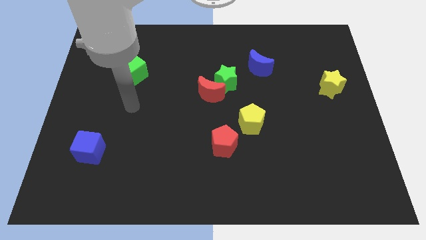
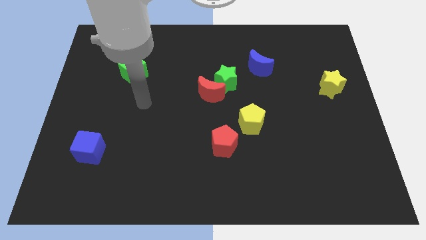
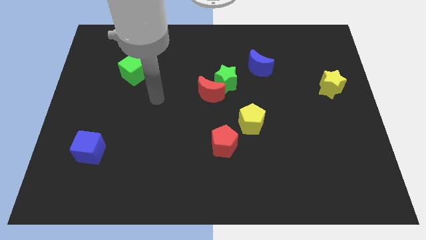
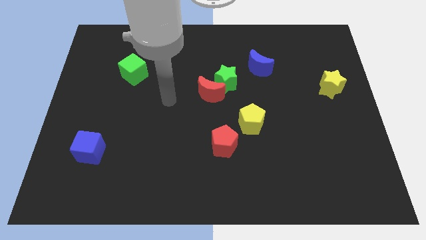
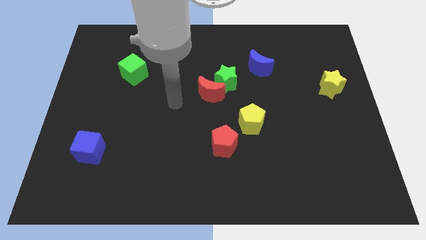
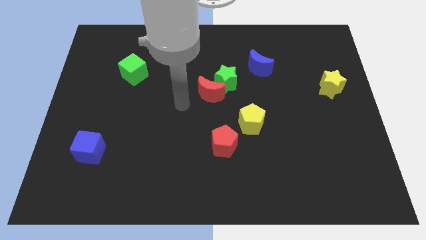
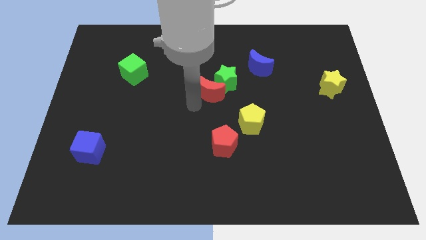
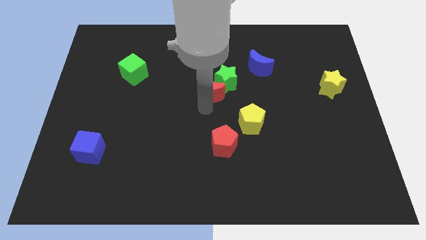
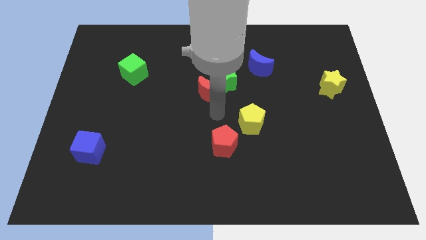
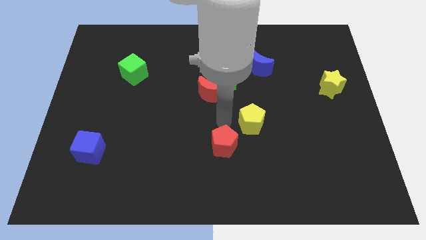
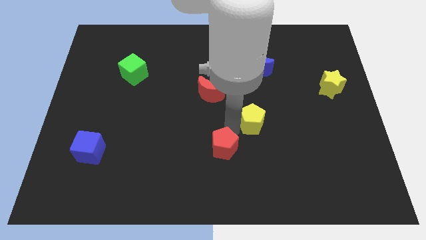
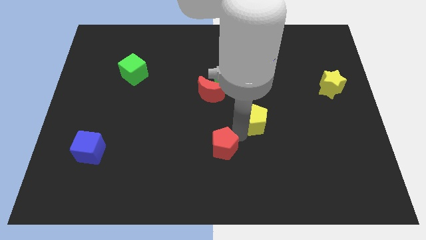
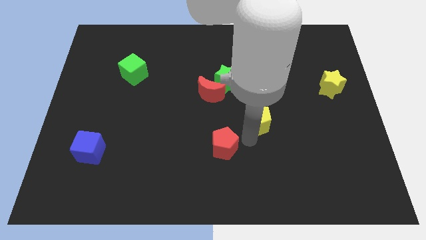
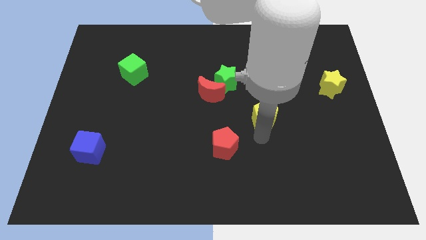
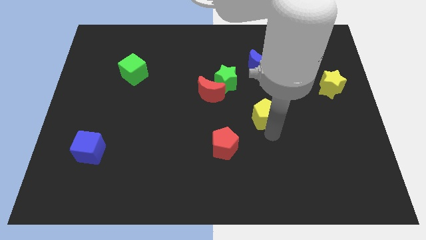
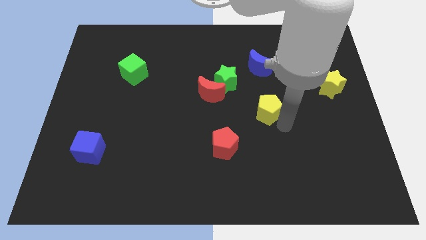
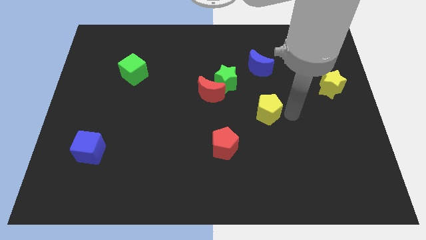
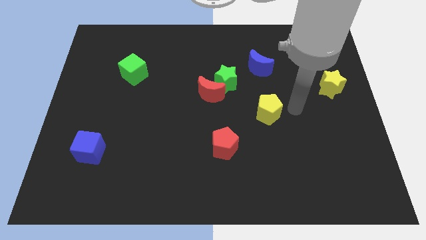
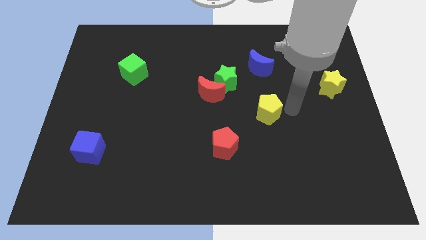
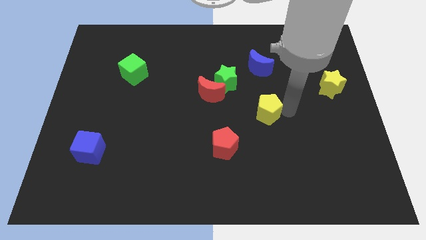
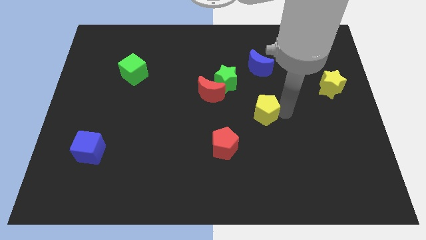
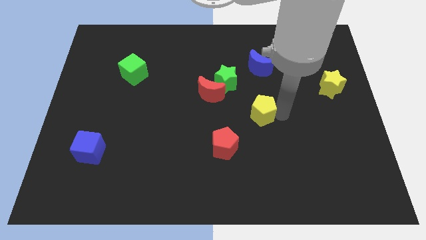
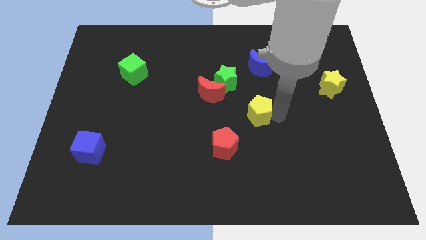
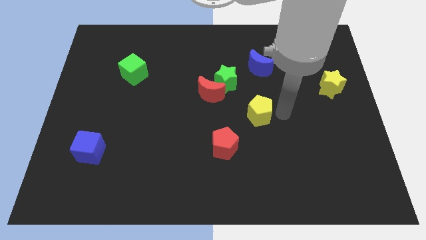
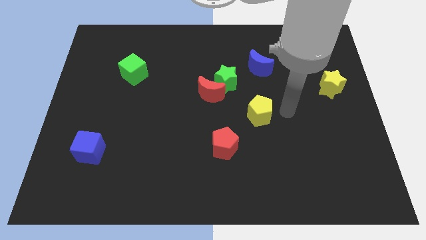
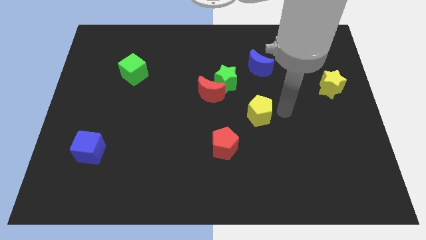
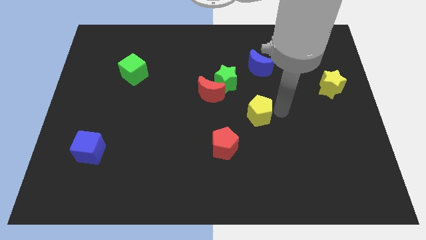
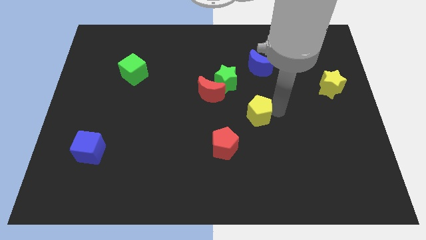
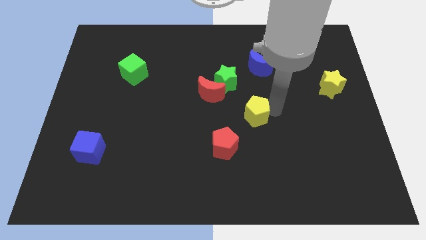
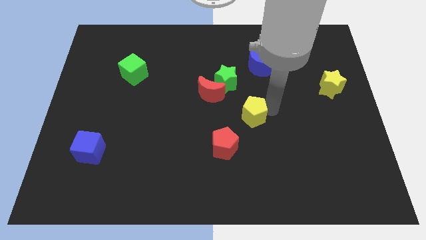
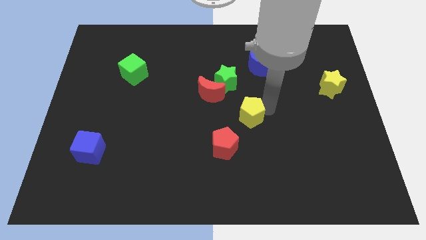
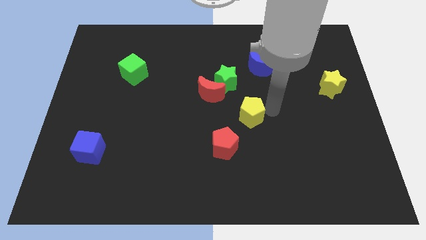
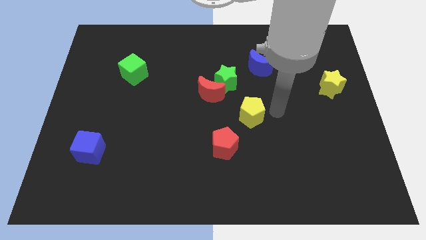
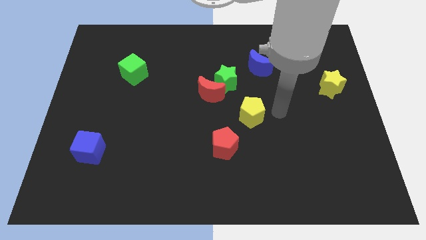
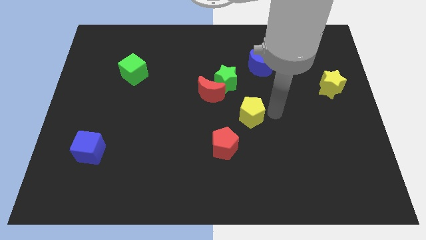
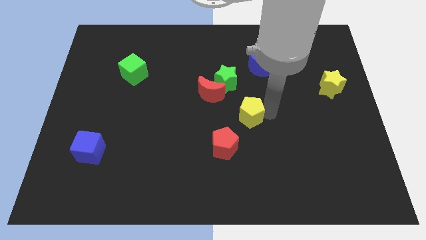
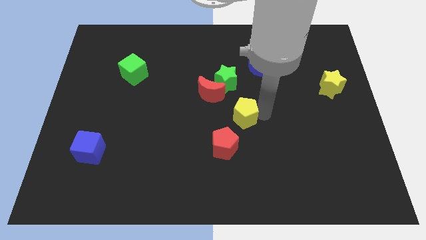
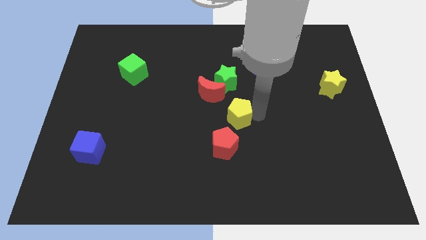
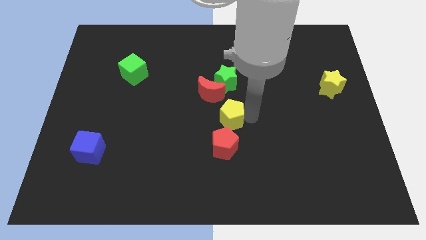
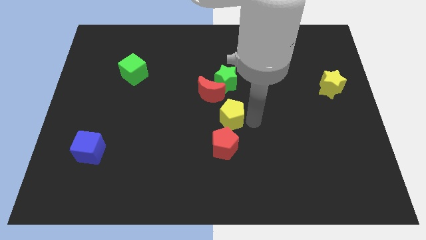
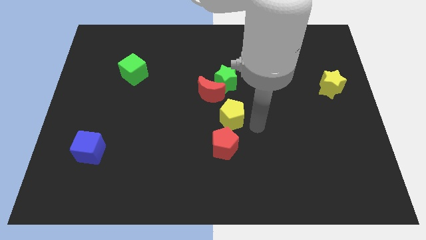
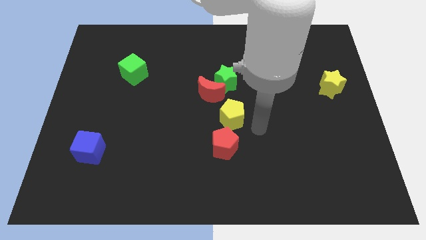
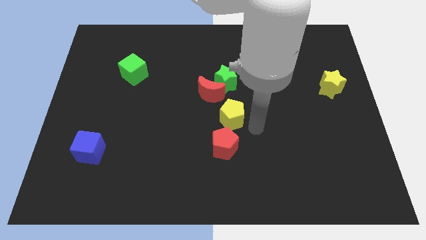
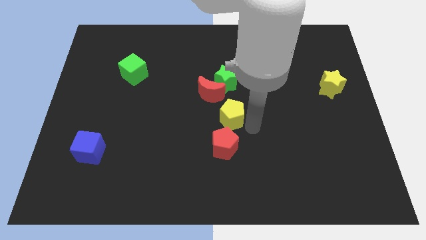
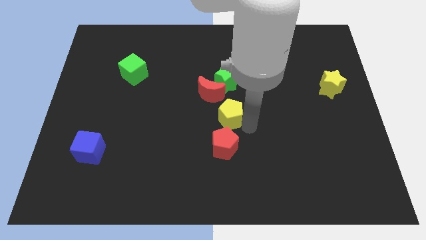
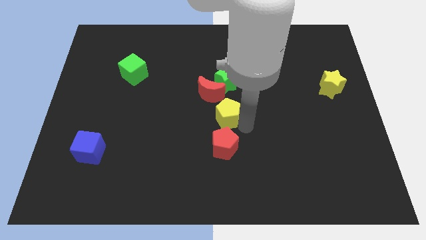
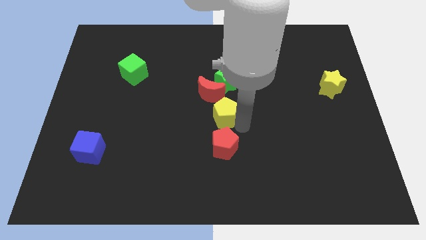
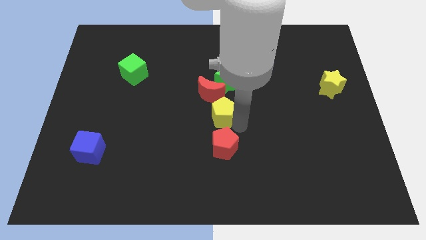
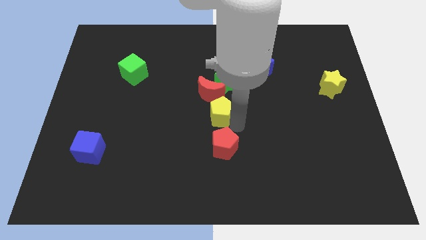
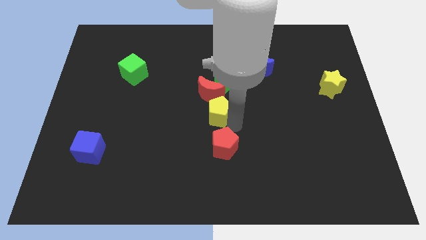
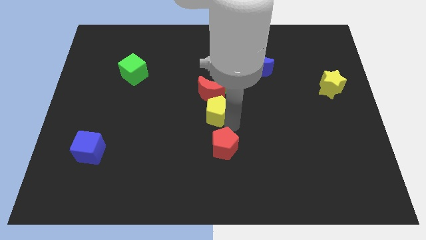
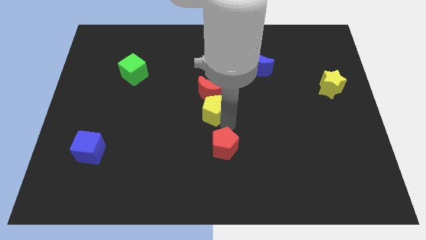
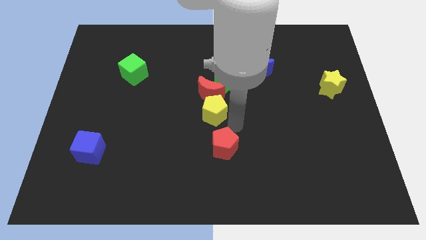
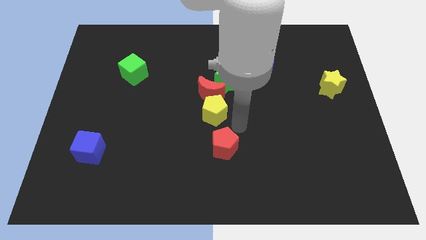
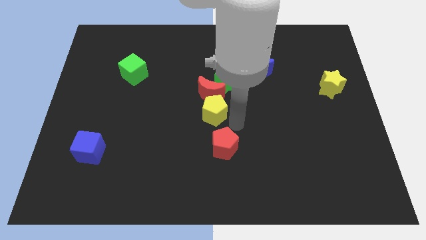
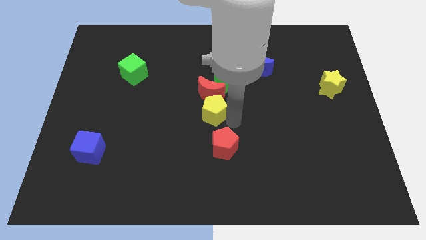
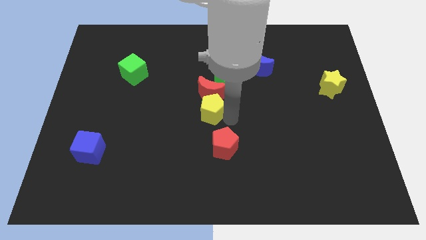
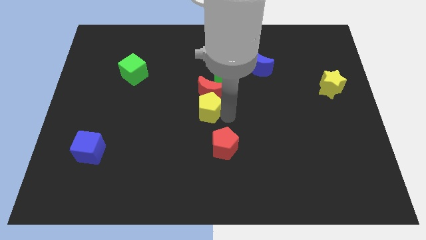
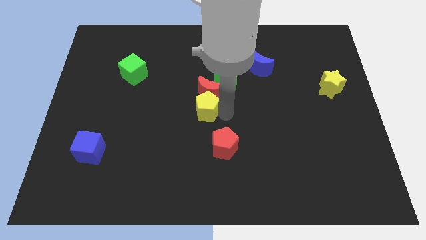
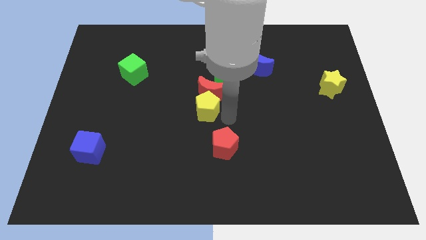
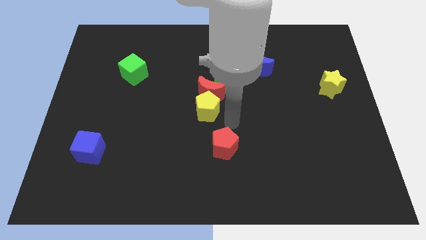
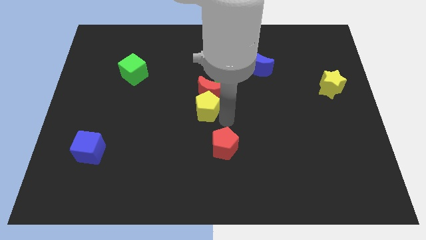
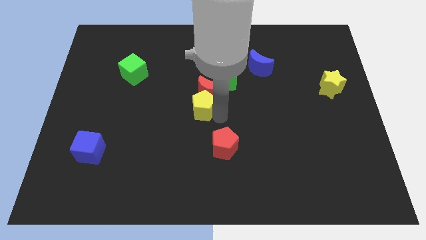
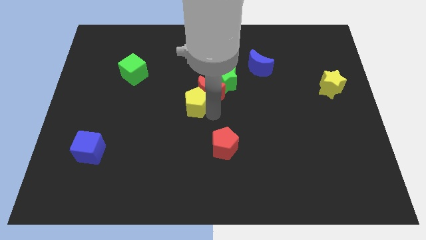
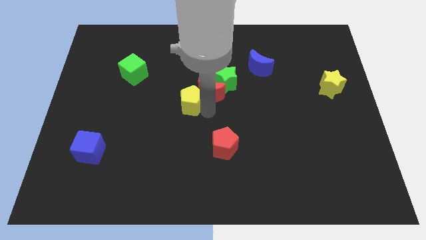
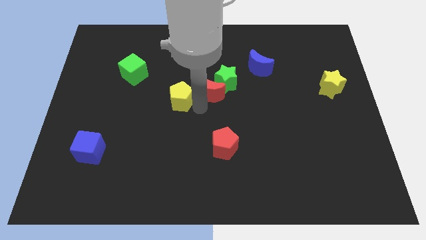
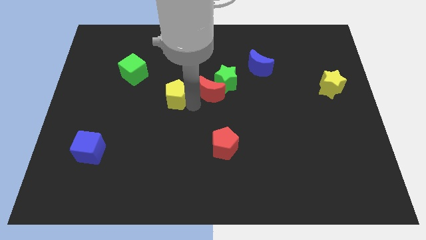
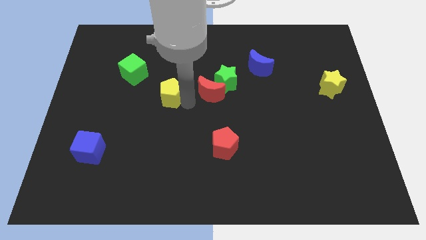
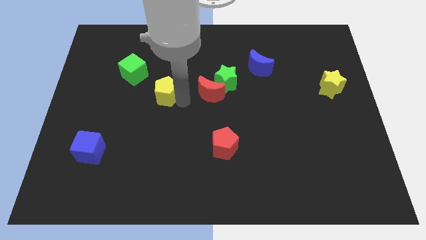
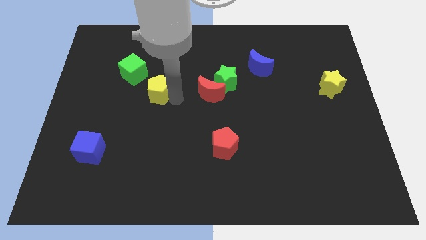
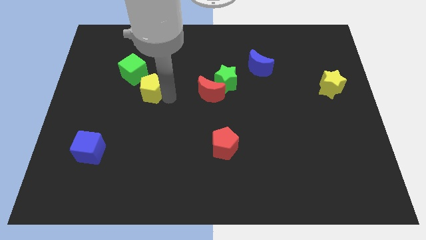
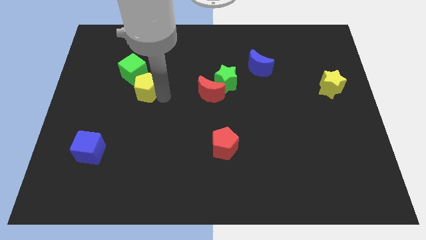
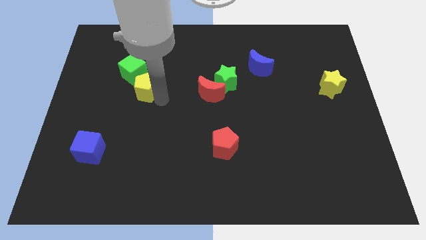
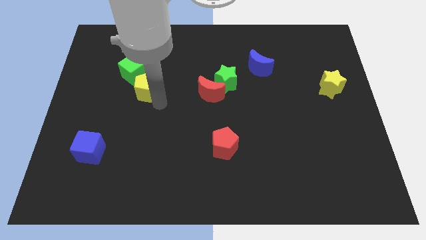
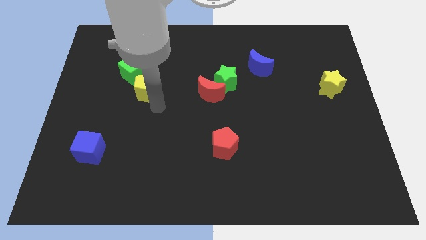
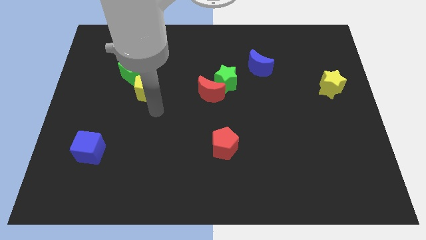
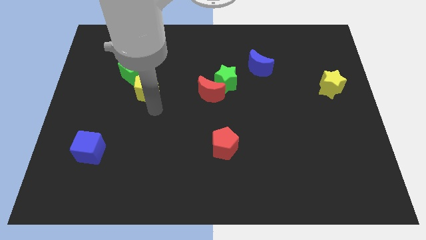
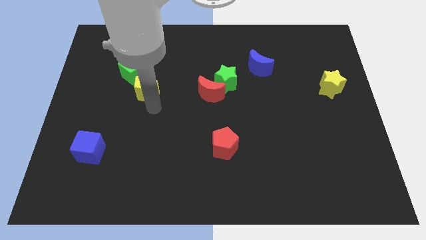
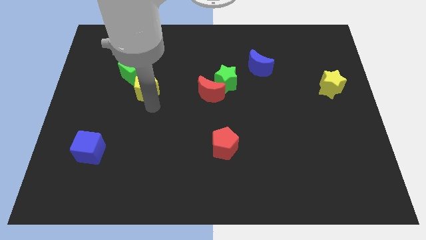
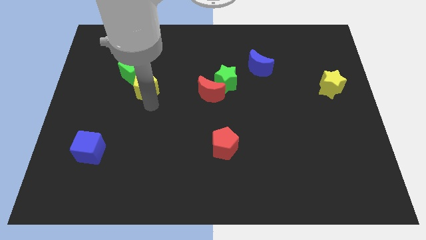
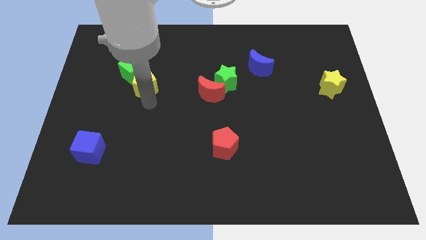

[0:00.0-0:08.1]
push the yellow pentagon to the green cube
